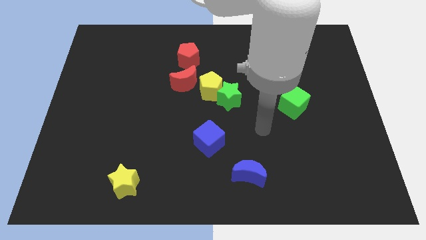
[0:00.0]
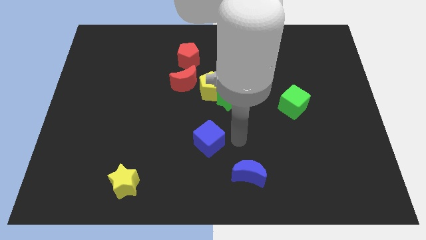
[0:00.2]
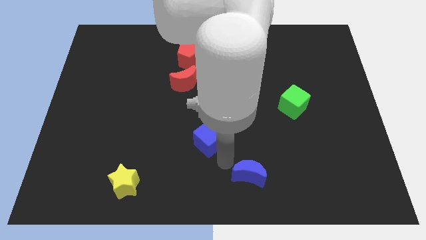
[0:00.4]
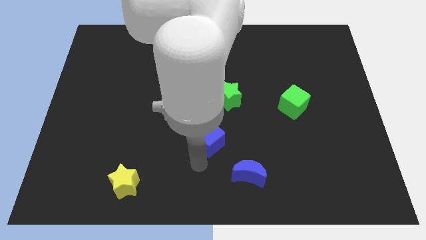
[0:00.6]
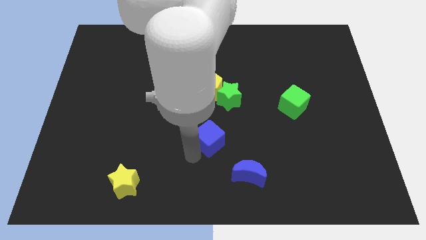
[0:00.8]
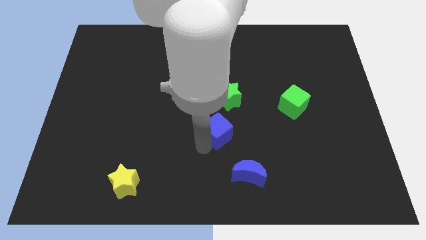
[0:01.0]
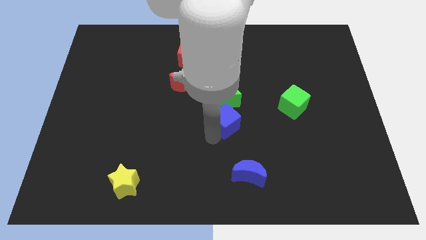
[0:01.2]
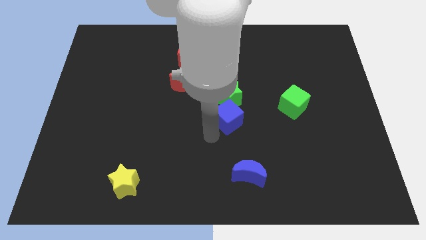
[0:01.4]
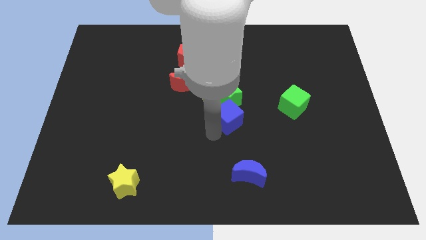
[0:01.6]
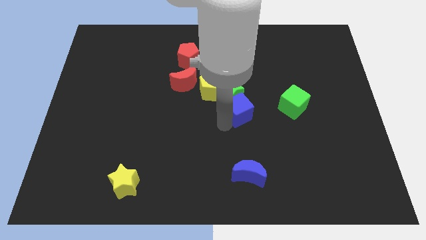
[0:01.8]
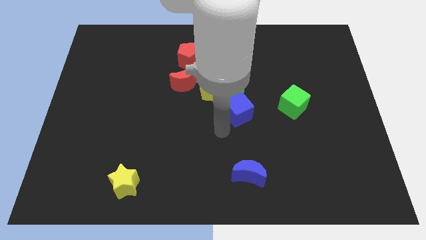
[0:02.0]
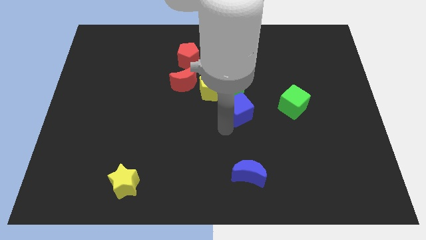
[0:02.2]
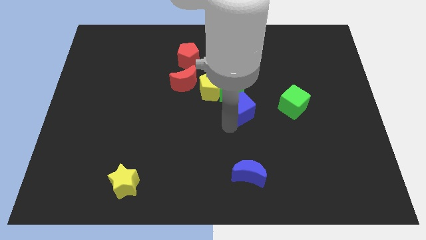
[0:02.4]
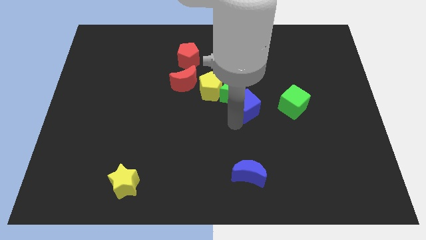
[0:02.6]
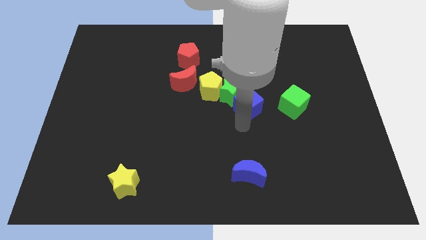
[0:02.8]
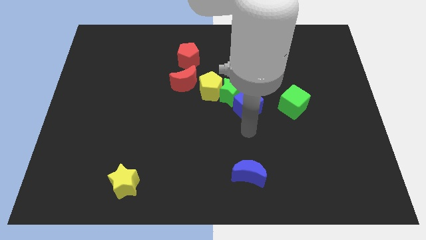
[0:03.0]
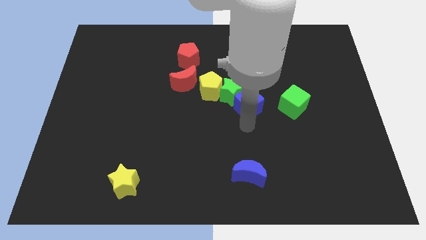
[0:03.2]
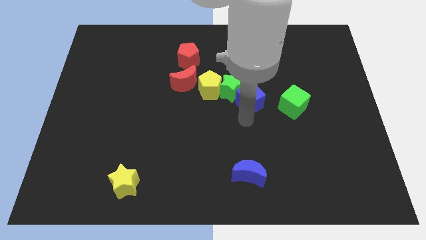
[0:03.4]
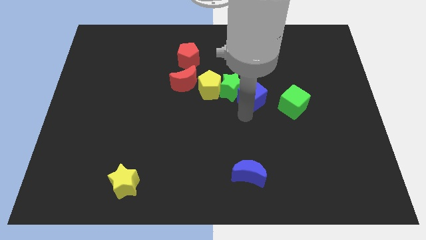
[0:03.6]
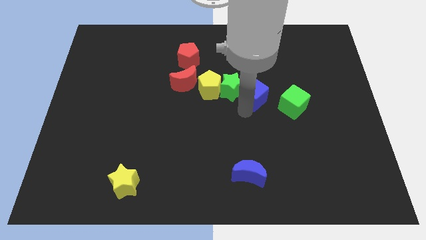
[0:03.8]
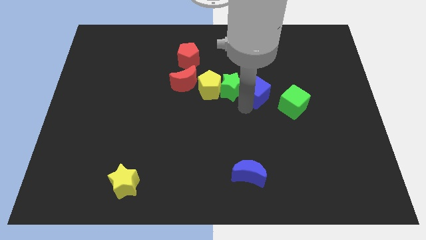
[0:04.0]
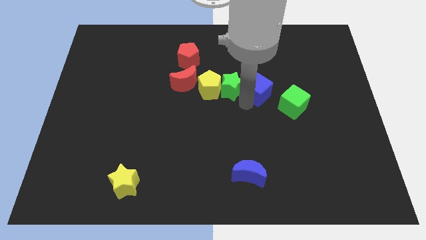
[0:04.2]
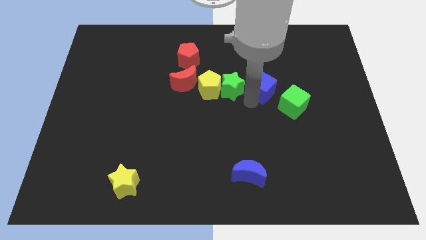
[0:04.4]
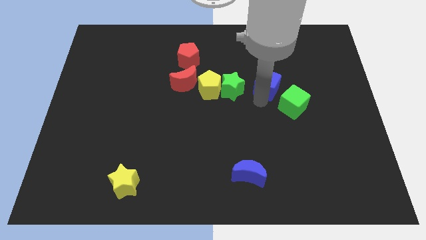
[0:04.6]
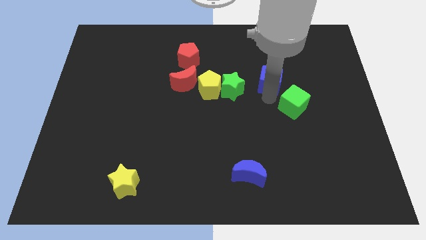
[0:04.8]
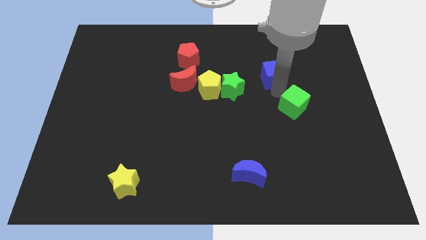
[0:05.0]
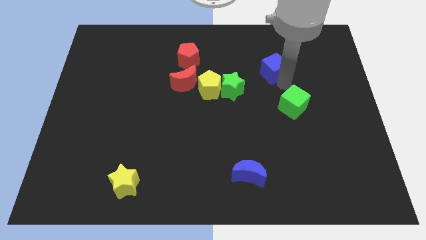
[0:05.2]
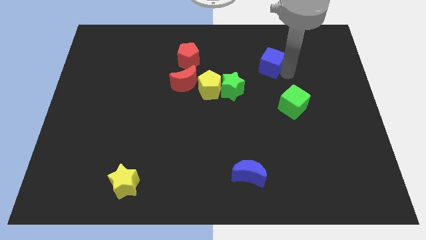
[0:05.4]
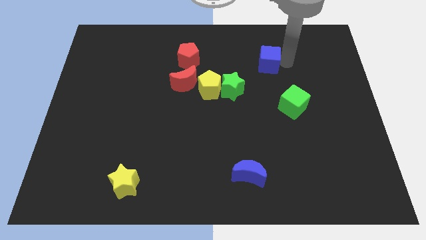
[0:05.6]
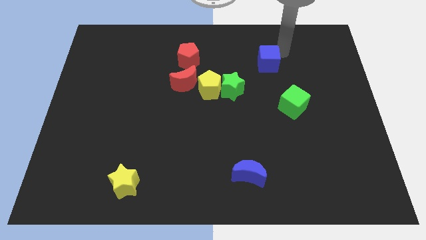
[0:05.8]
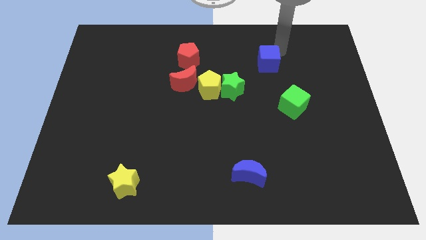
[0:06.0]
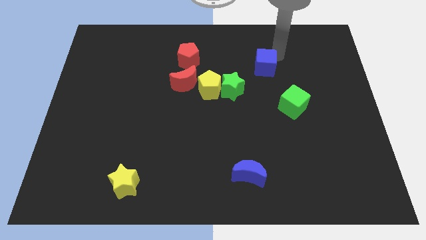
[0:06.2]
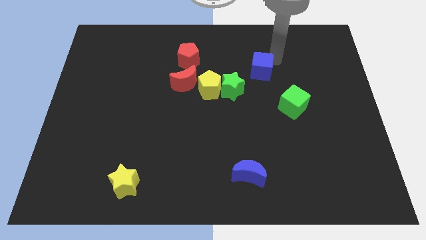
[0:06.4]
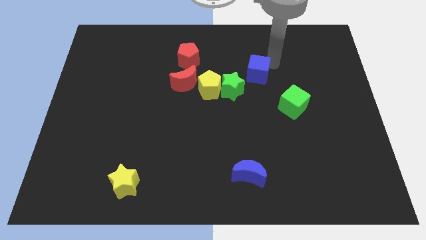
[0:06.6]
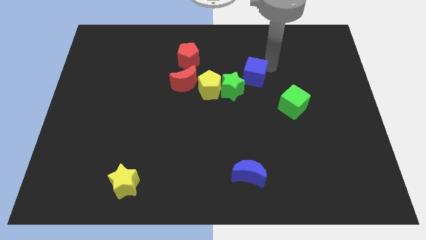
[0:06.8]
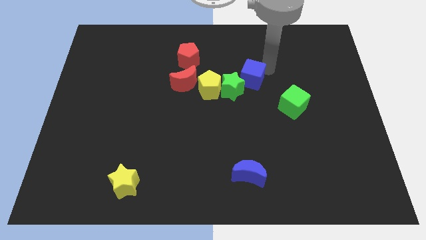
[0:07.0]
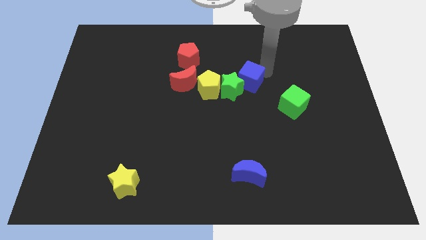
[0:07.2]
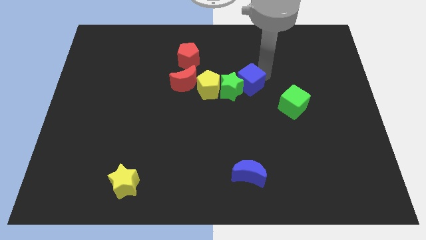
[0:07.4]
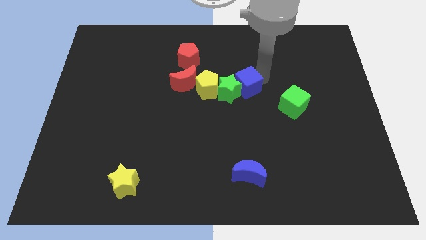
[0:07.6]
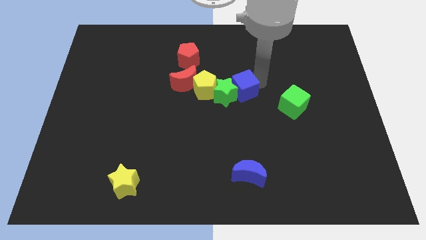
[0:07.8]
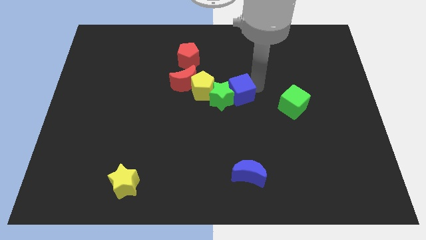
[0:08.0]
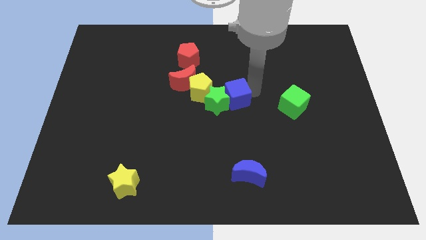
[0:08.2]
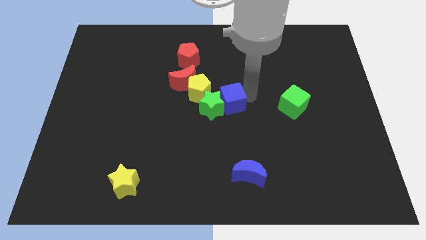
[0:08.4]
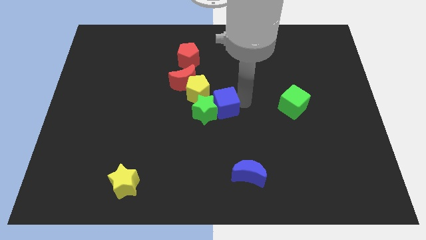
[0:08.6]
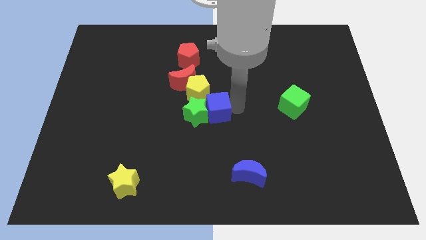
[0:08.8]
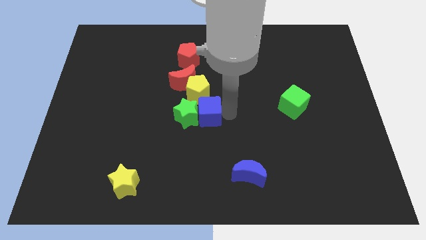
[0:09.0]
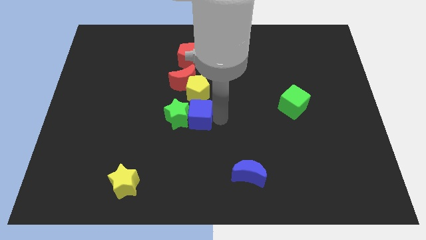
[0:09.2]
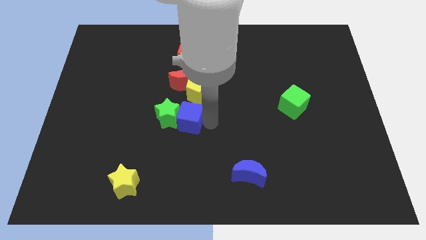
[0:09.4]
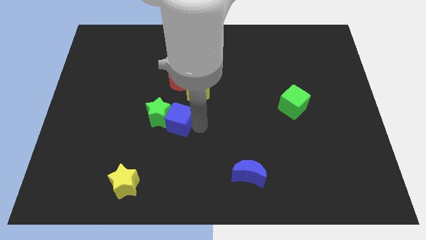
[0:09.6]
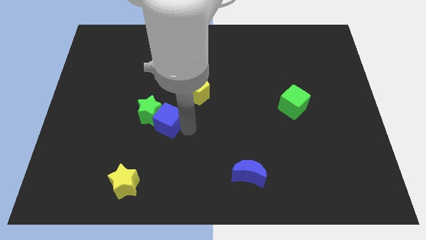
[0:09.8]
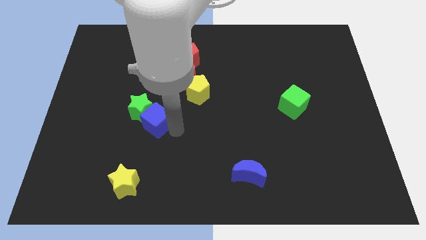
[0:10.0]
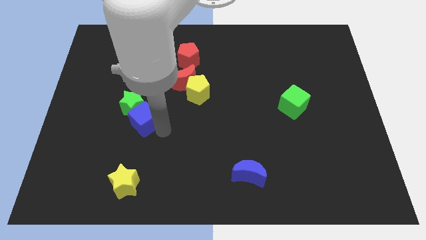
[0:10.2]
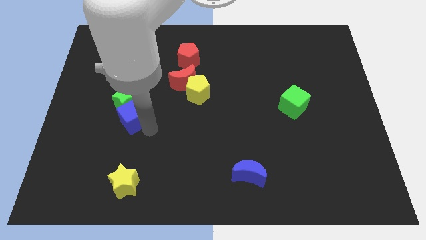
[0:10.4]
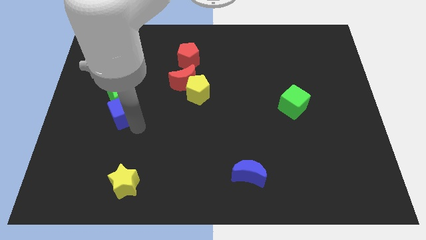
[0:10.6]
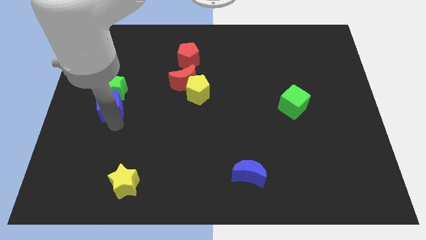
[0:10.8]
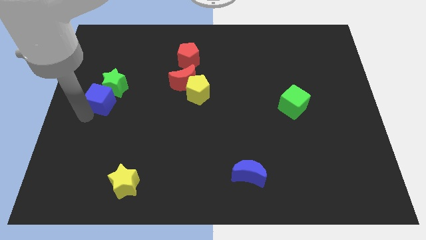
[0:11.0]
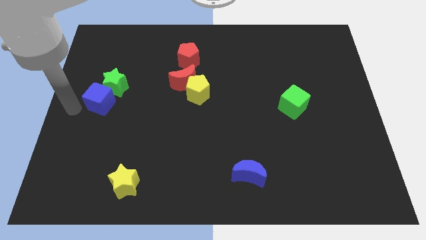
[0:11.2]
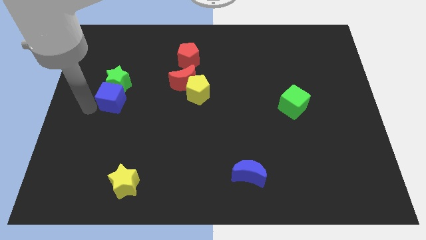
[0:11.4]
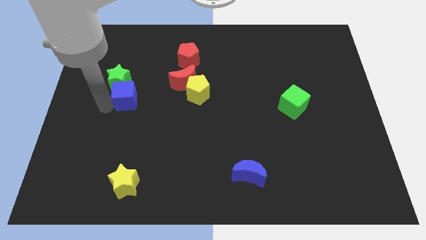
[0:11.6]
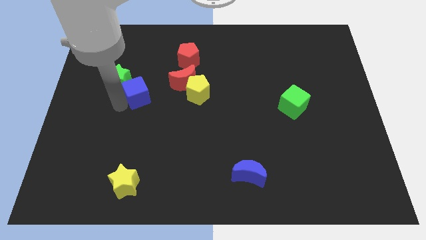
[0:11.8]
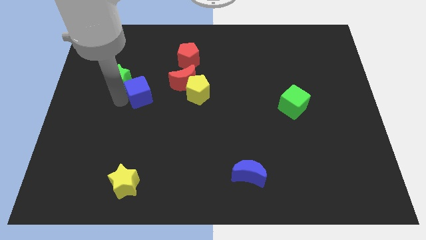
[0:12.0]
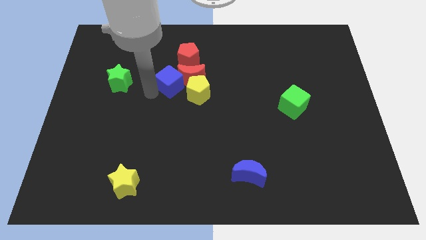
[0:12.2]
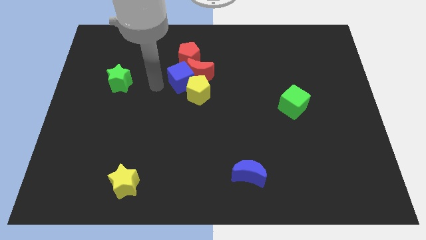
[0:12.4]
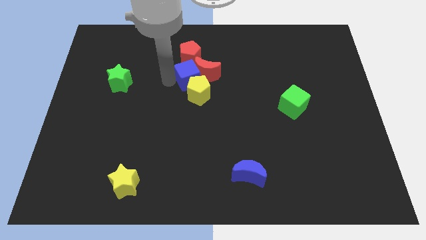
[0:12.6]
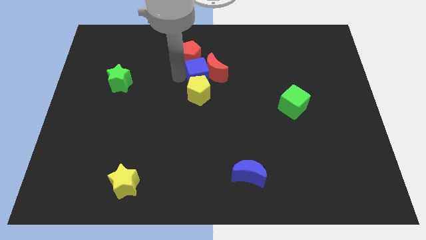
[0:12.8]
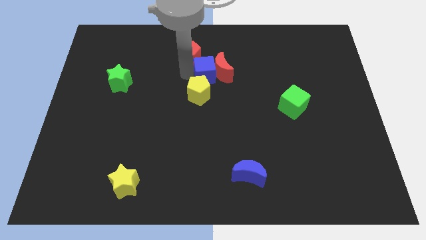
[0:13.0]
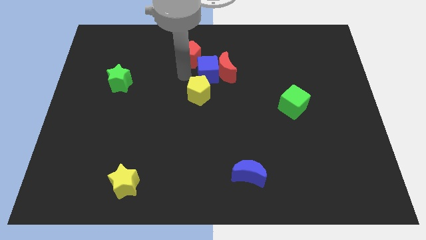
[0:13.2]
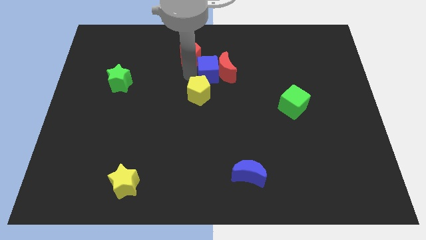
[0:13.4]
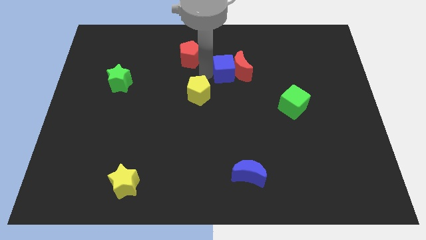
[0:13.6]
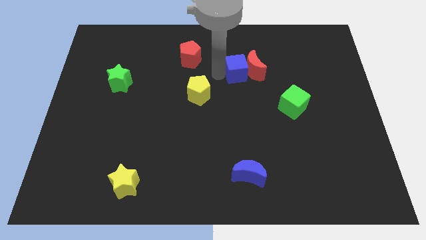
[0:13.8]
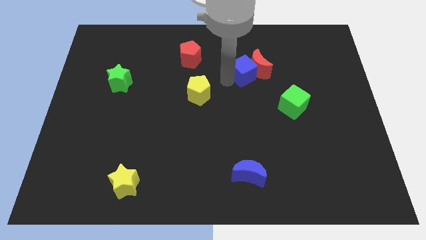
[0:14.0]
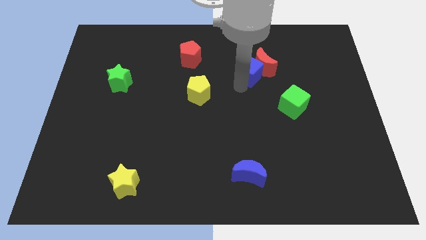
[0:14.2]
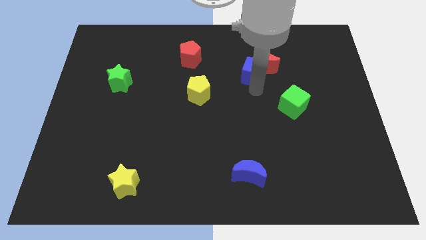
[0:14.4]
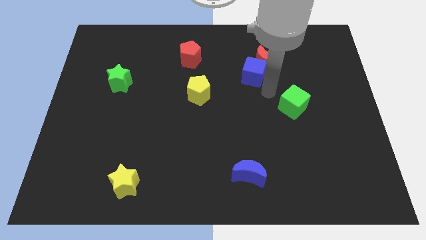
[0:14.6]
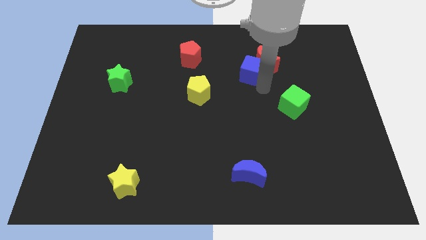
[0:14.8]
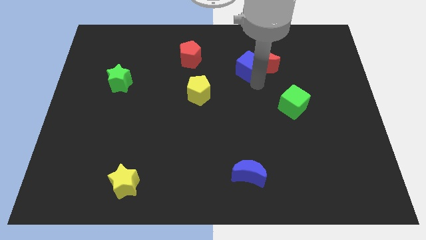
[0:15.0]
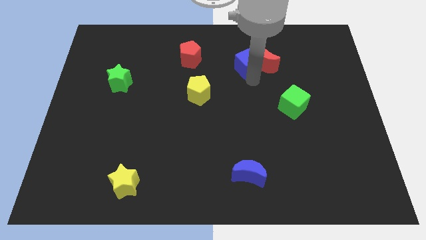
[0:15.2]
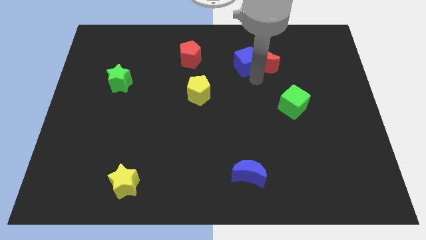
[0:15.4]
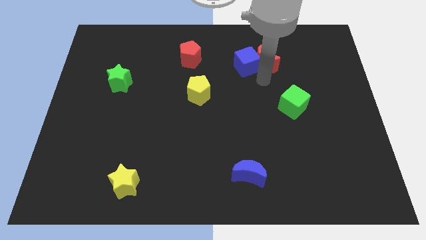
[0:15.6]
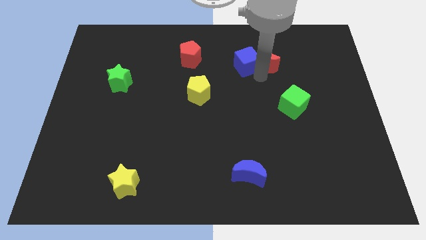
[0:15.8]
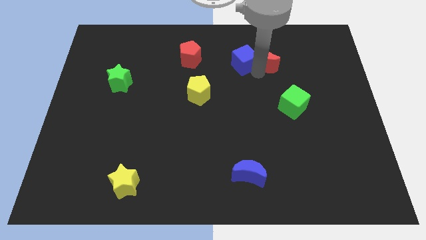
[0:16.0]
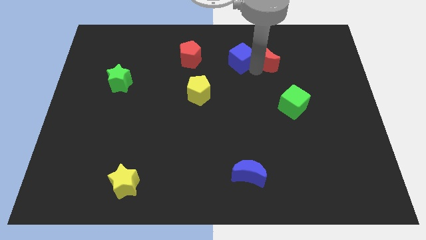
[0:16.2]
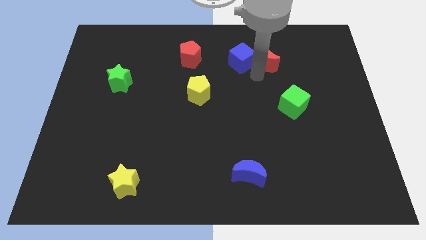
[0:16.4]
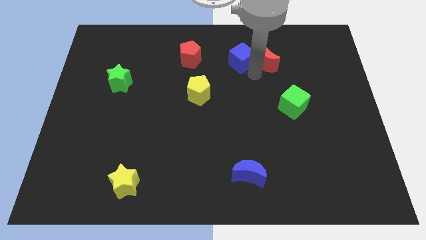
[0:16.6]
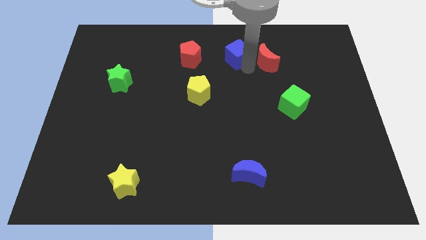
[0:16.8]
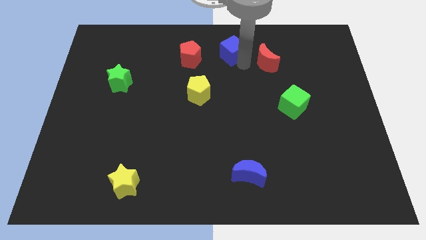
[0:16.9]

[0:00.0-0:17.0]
put the blue cube to the top
